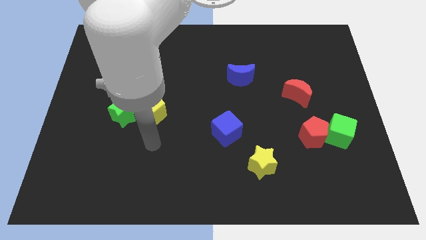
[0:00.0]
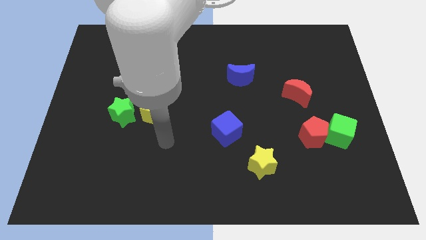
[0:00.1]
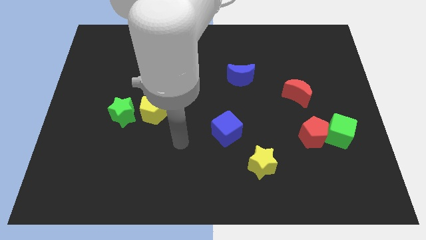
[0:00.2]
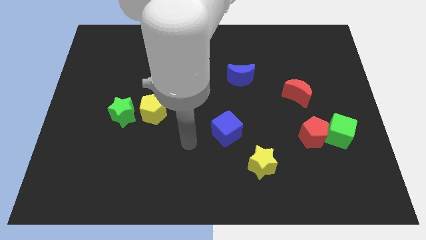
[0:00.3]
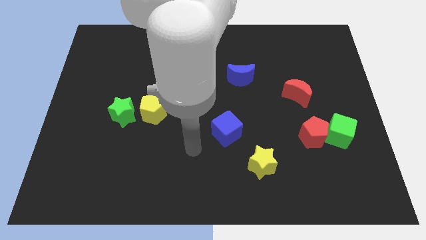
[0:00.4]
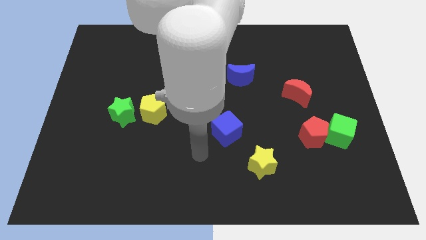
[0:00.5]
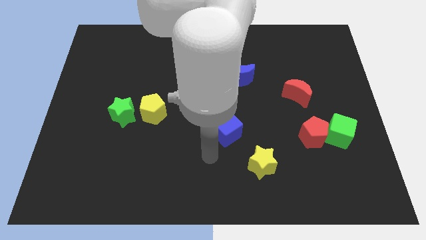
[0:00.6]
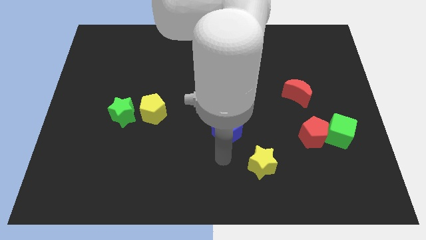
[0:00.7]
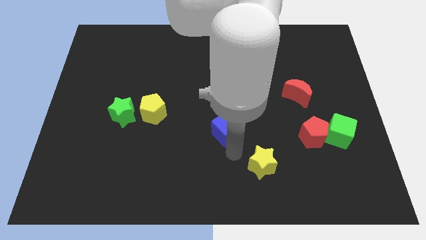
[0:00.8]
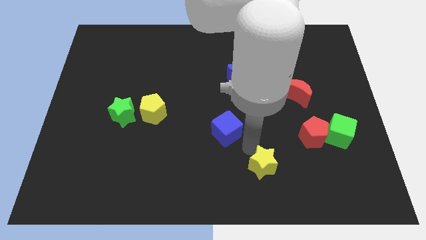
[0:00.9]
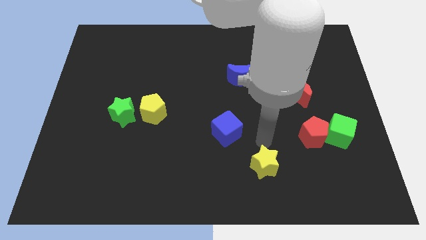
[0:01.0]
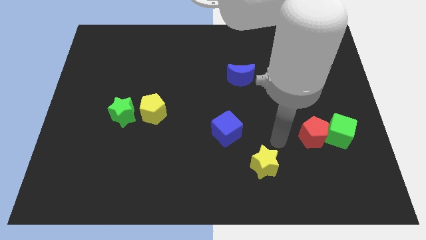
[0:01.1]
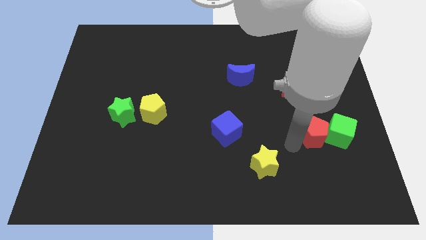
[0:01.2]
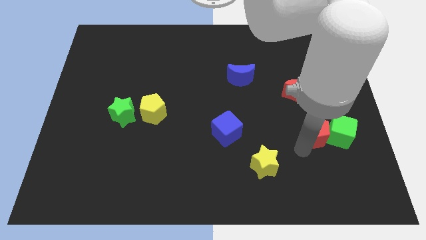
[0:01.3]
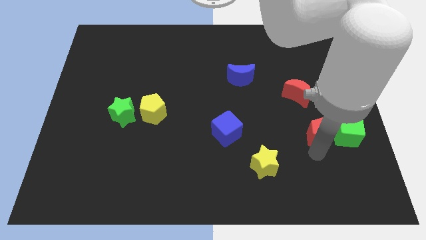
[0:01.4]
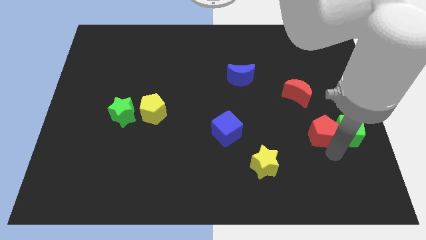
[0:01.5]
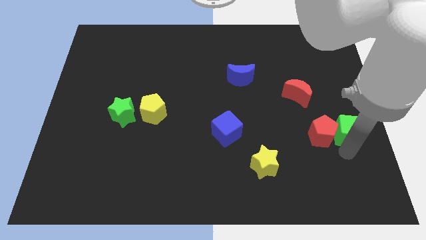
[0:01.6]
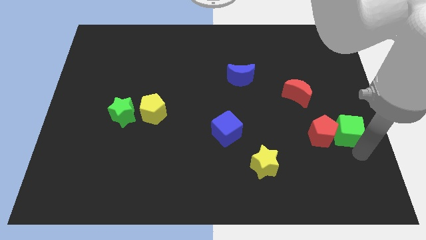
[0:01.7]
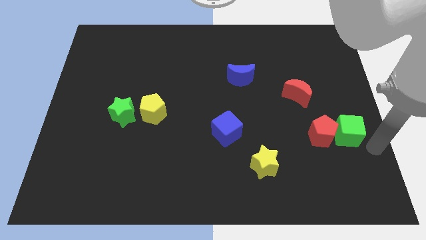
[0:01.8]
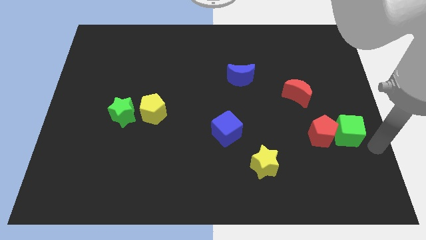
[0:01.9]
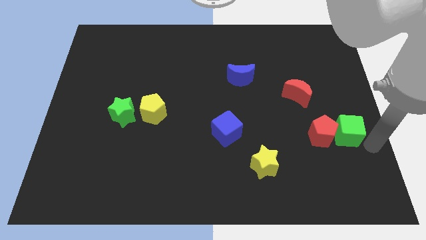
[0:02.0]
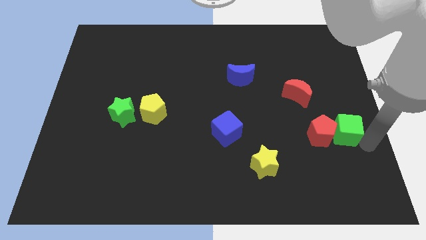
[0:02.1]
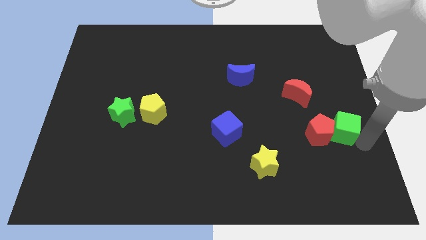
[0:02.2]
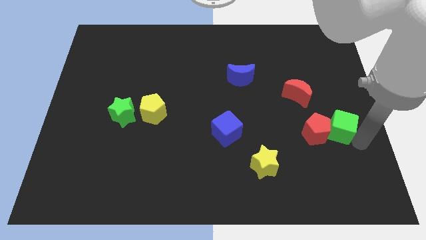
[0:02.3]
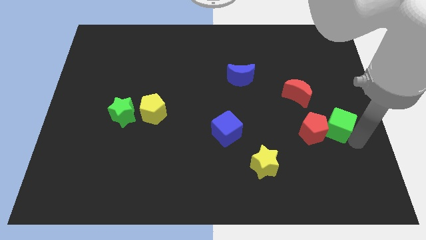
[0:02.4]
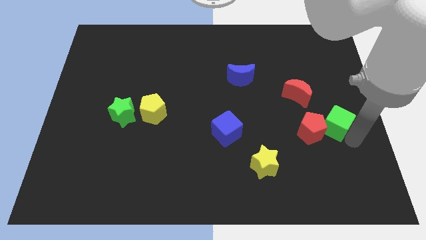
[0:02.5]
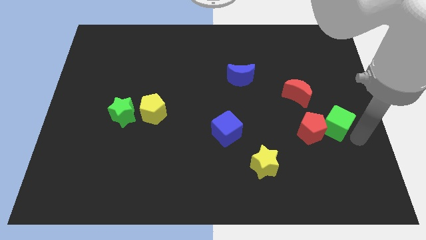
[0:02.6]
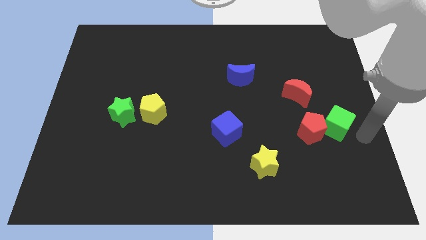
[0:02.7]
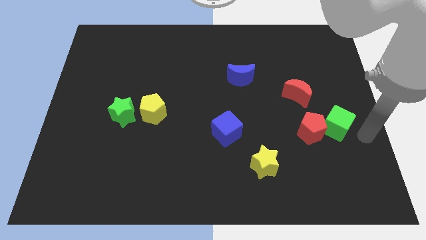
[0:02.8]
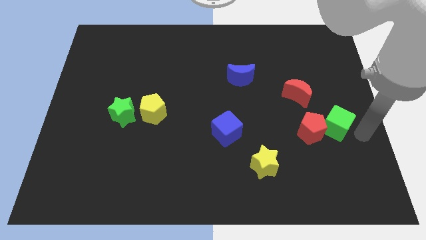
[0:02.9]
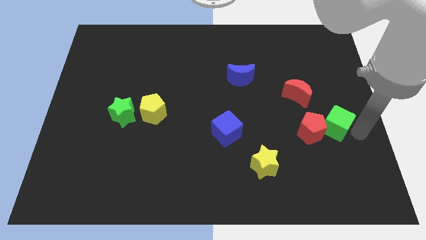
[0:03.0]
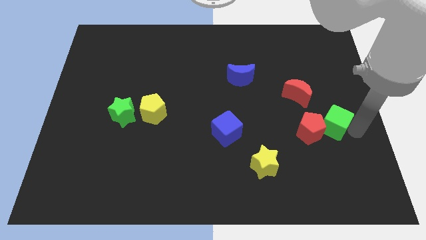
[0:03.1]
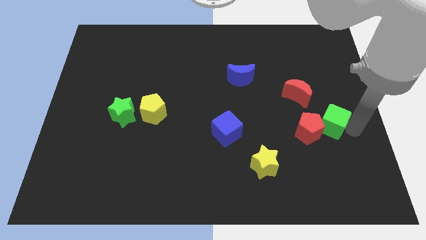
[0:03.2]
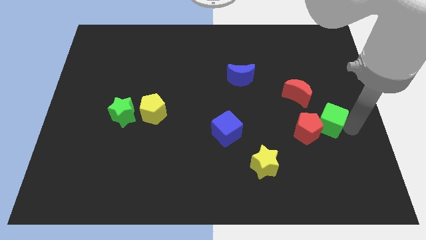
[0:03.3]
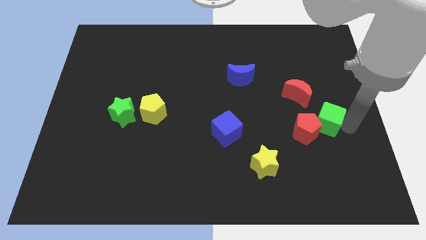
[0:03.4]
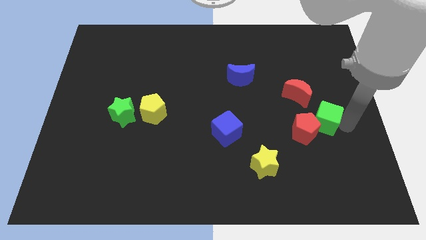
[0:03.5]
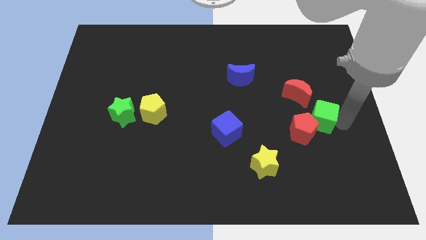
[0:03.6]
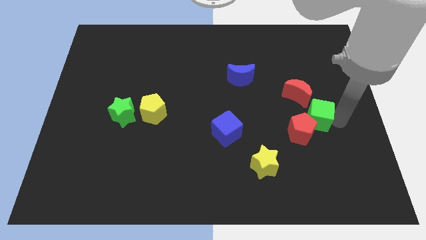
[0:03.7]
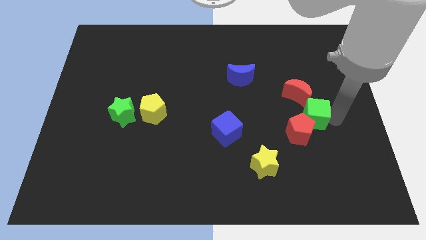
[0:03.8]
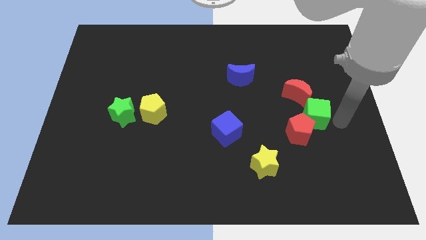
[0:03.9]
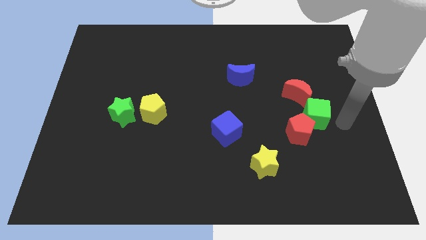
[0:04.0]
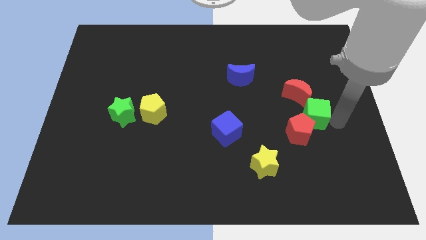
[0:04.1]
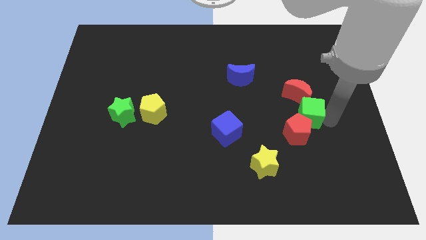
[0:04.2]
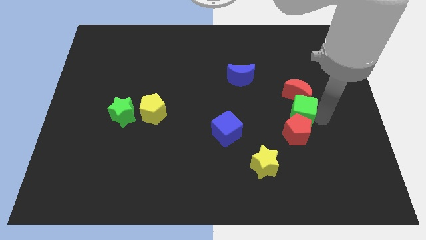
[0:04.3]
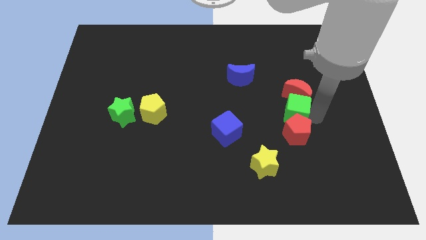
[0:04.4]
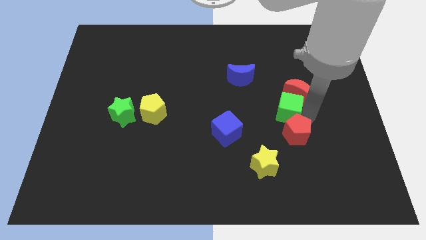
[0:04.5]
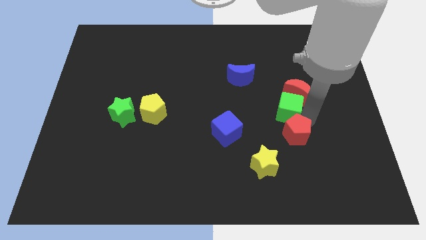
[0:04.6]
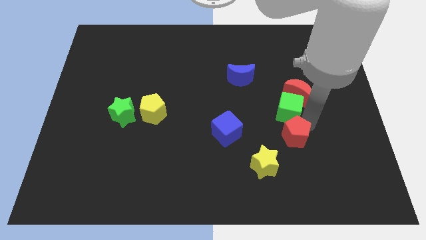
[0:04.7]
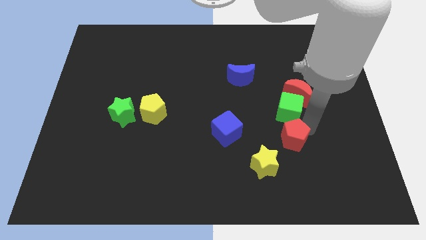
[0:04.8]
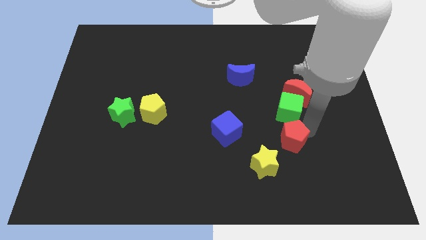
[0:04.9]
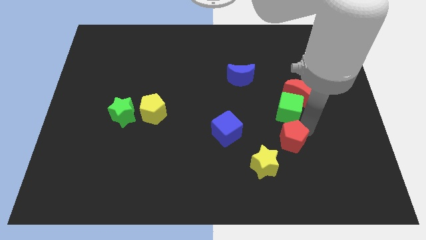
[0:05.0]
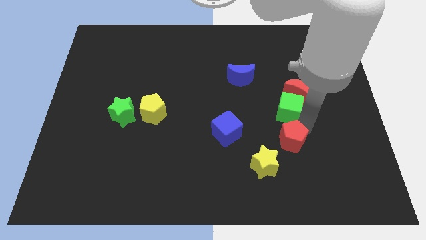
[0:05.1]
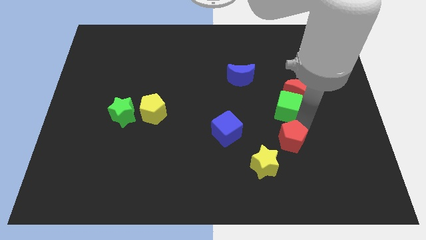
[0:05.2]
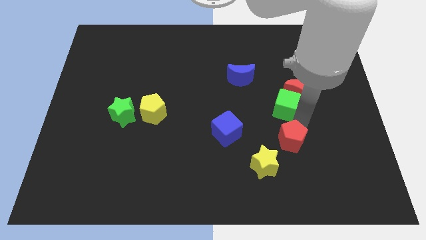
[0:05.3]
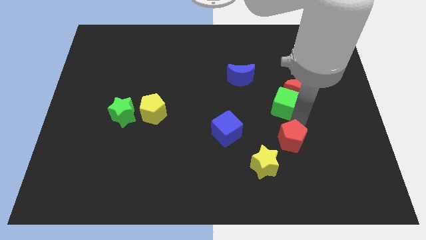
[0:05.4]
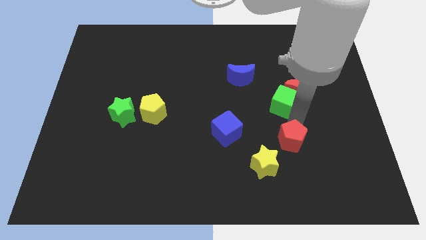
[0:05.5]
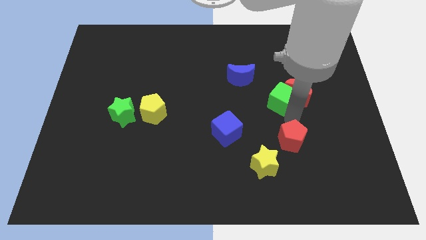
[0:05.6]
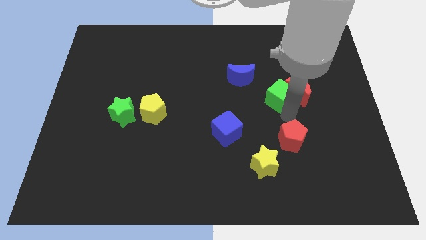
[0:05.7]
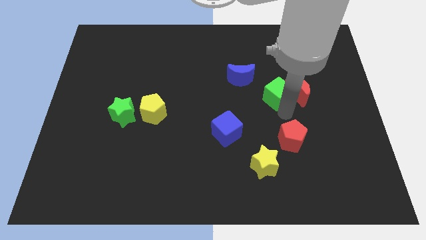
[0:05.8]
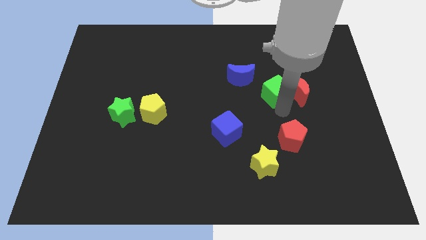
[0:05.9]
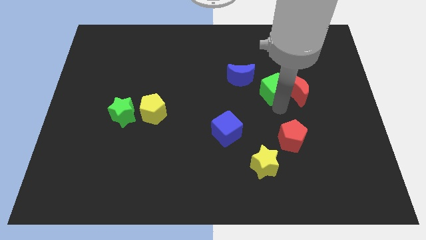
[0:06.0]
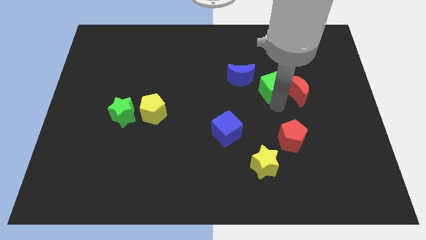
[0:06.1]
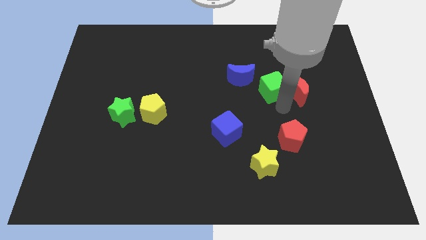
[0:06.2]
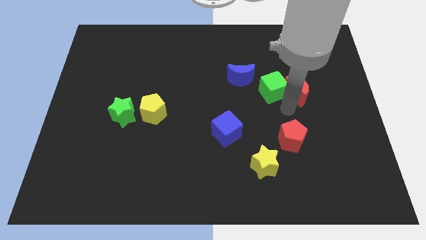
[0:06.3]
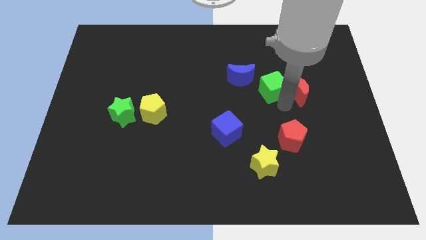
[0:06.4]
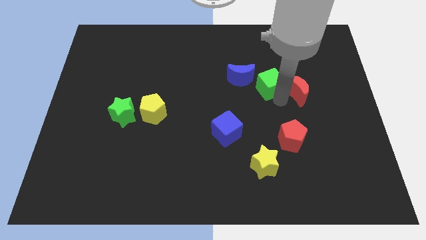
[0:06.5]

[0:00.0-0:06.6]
push the green cube up and to the left diagonally

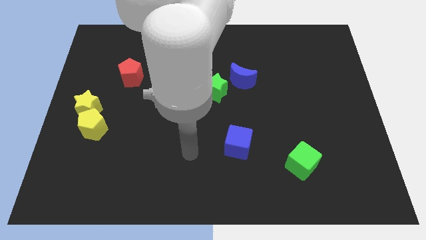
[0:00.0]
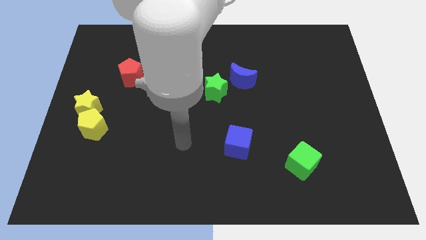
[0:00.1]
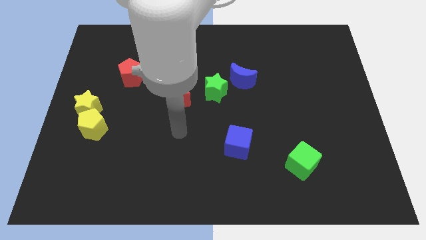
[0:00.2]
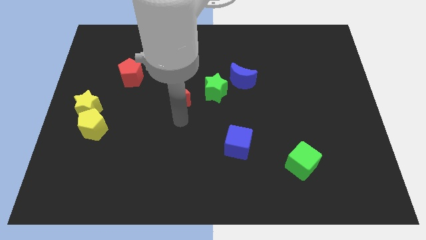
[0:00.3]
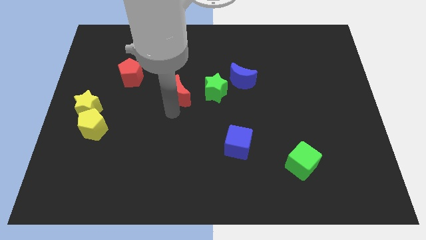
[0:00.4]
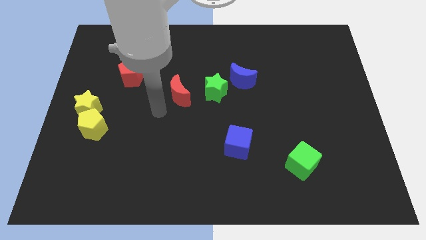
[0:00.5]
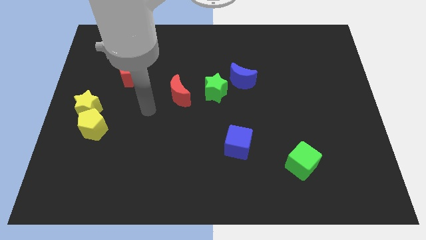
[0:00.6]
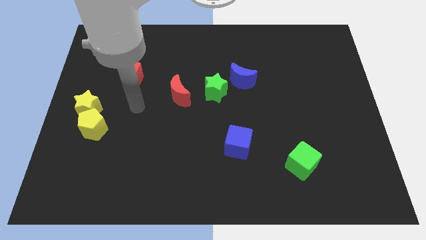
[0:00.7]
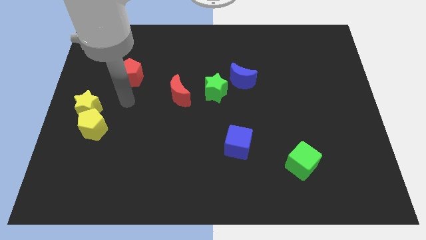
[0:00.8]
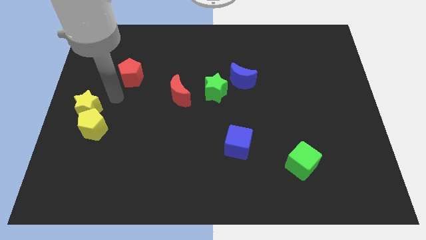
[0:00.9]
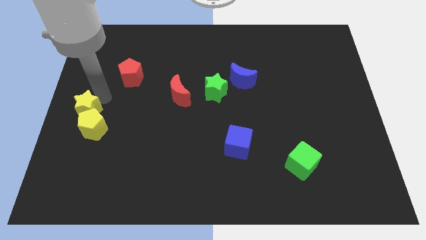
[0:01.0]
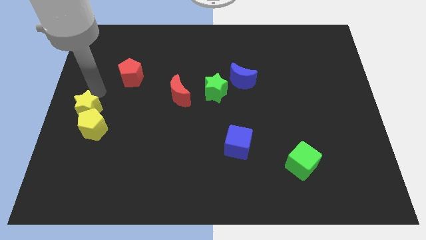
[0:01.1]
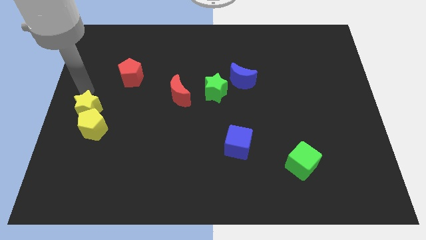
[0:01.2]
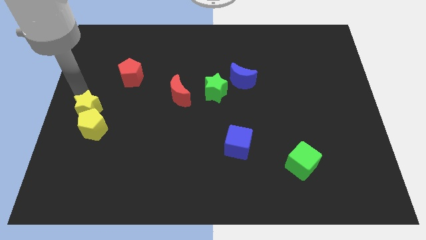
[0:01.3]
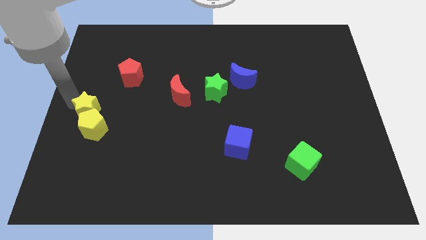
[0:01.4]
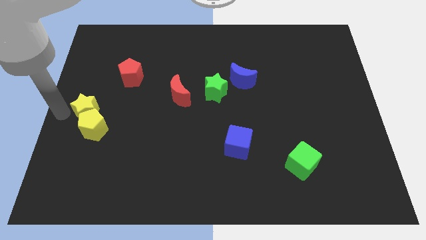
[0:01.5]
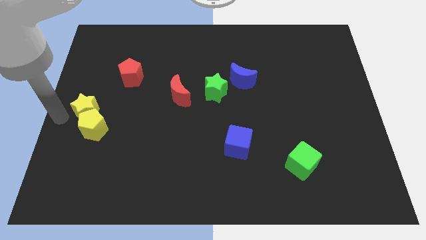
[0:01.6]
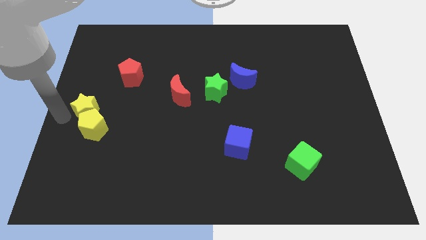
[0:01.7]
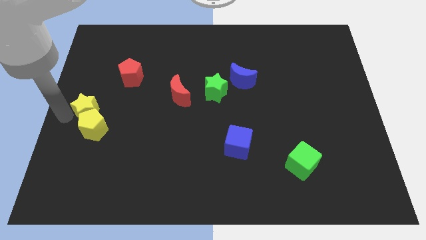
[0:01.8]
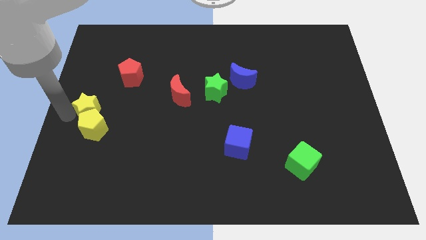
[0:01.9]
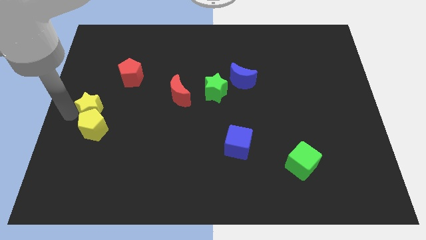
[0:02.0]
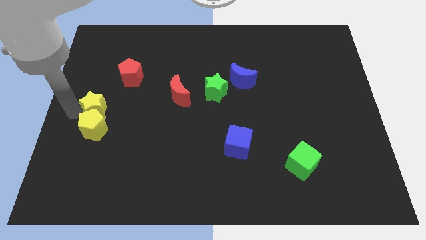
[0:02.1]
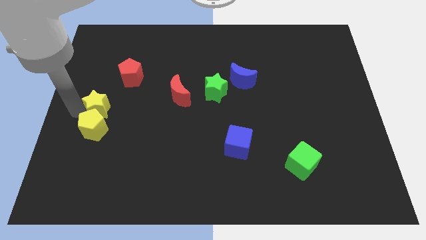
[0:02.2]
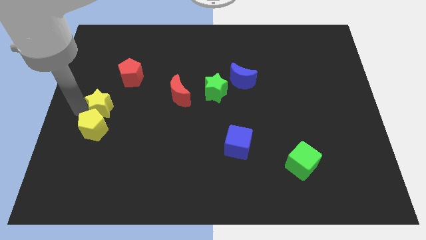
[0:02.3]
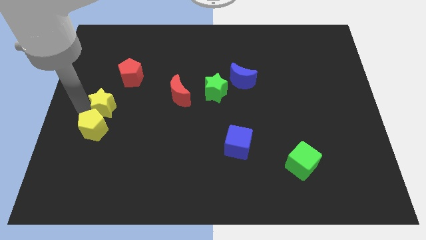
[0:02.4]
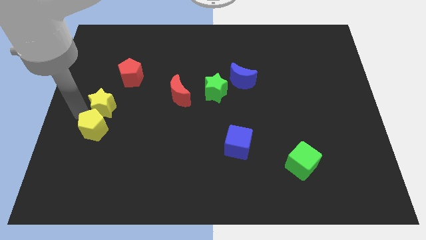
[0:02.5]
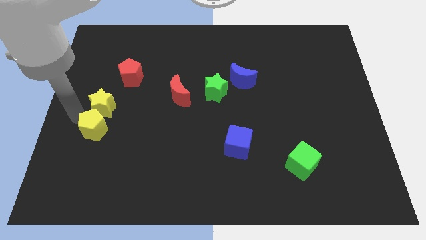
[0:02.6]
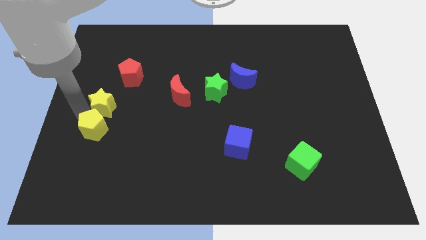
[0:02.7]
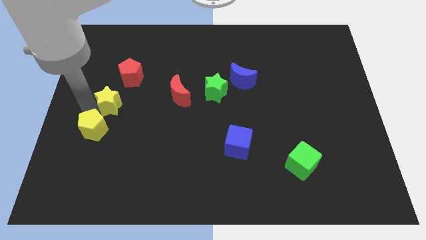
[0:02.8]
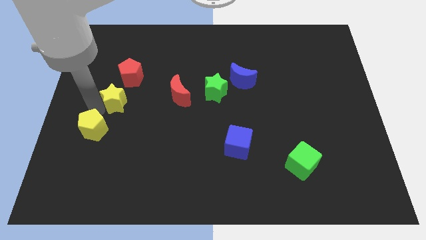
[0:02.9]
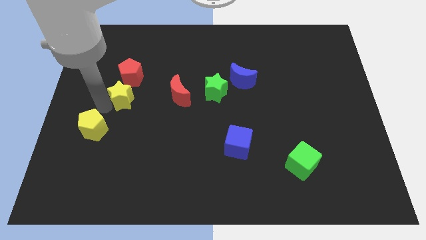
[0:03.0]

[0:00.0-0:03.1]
slightly slide the yellow star diagonally upwards and right
